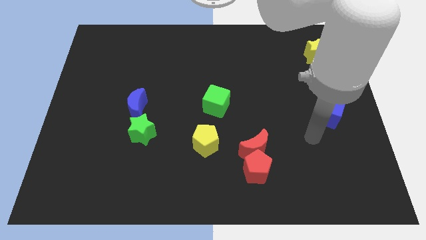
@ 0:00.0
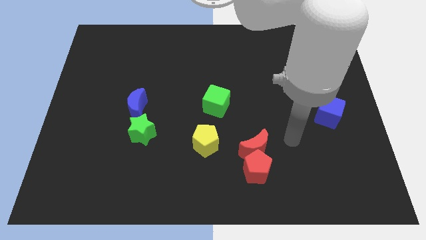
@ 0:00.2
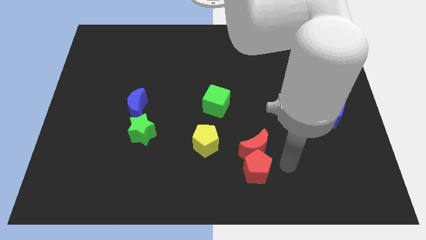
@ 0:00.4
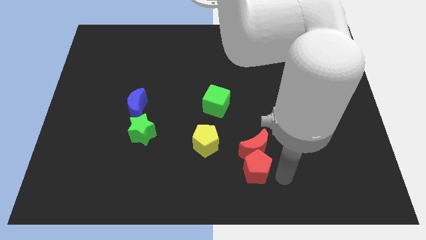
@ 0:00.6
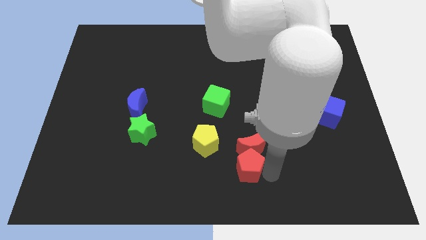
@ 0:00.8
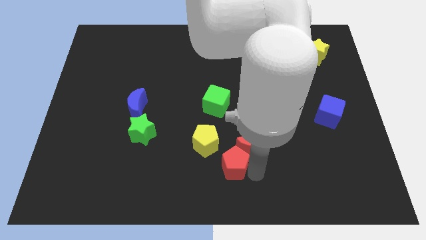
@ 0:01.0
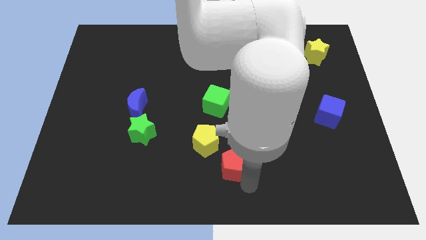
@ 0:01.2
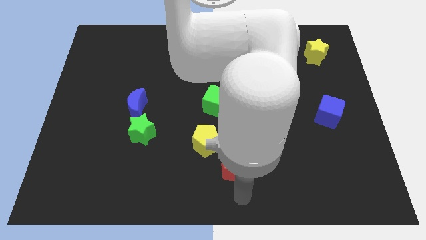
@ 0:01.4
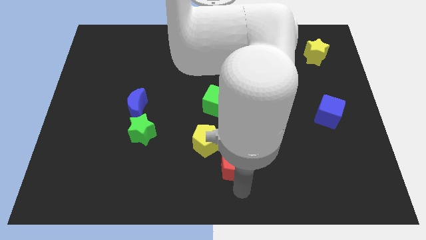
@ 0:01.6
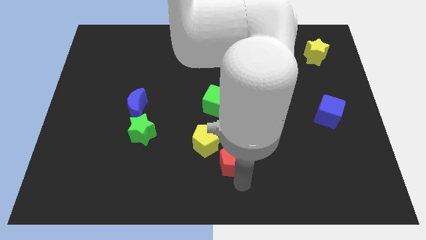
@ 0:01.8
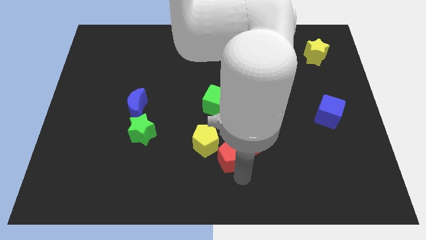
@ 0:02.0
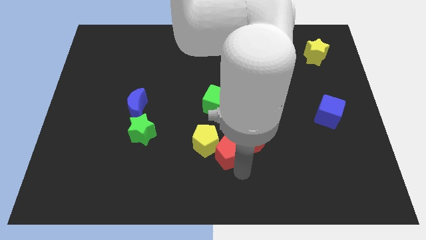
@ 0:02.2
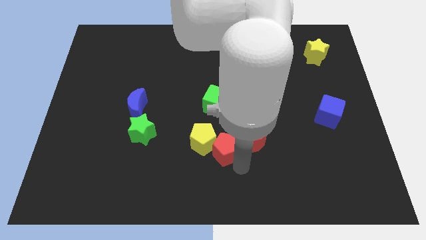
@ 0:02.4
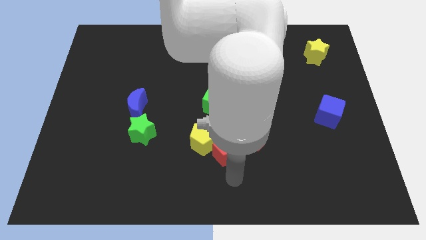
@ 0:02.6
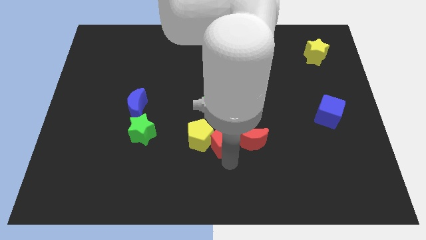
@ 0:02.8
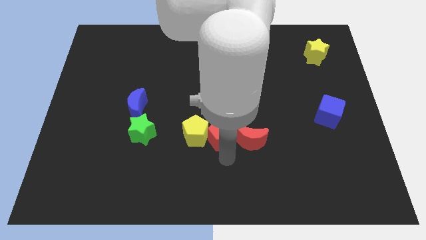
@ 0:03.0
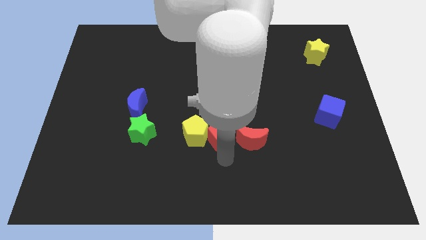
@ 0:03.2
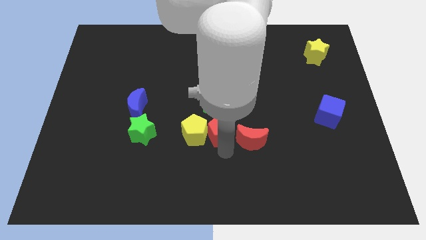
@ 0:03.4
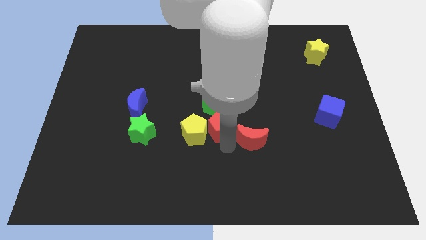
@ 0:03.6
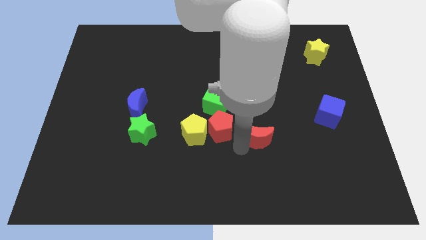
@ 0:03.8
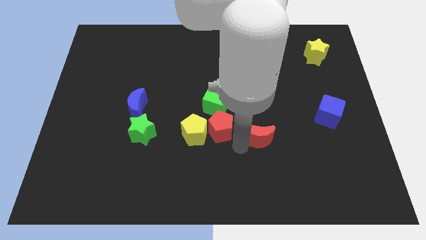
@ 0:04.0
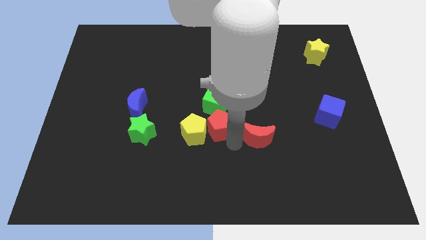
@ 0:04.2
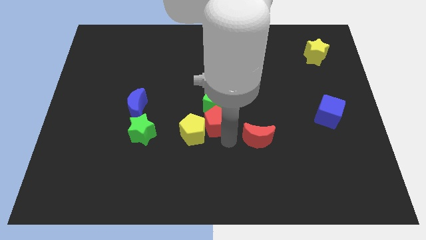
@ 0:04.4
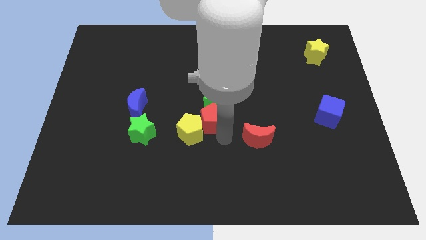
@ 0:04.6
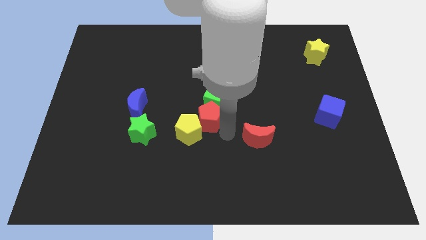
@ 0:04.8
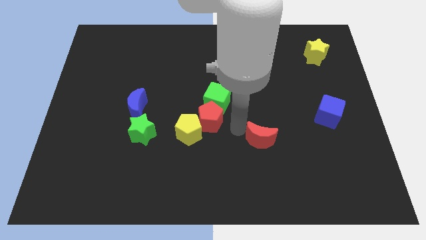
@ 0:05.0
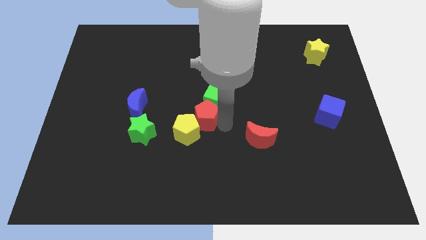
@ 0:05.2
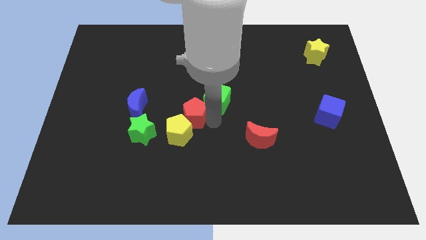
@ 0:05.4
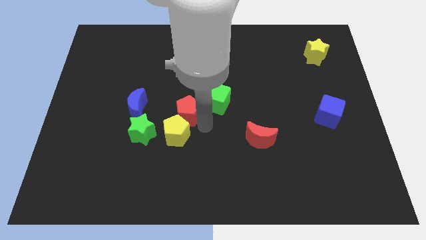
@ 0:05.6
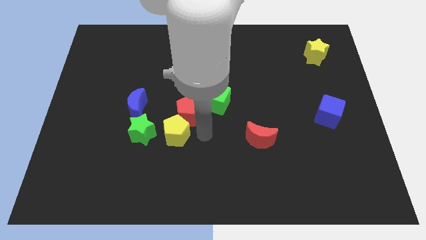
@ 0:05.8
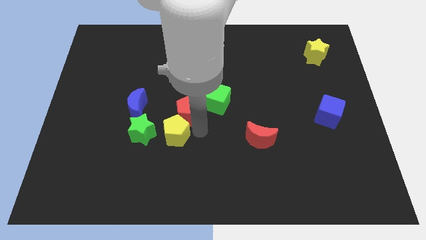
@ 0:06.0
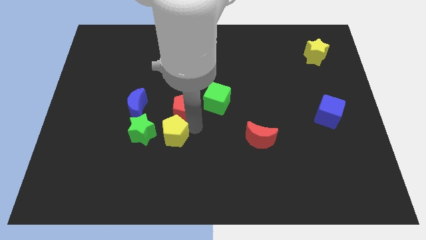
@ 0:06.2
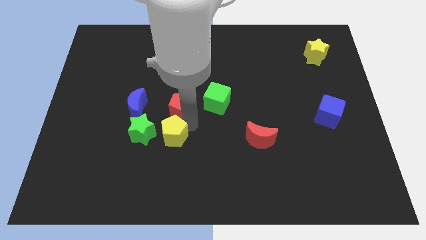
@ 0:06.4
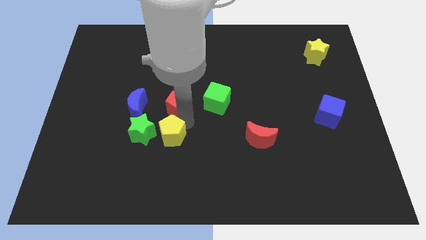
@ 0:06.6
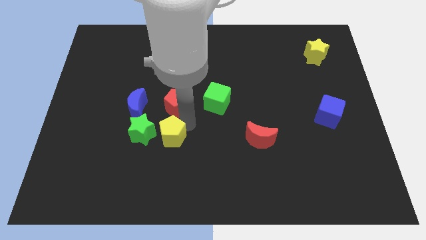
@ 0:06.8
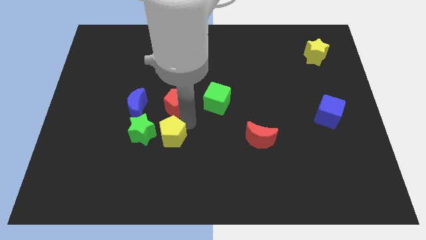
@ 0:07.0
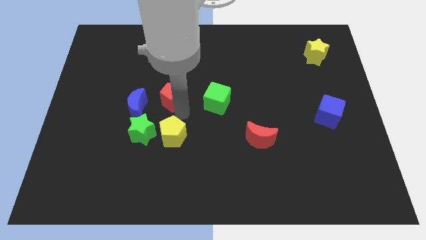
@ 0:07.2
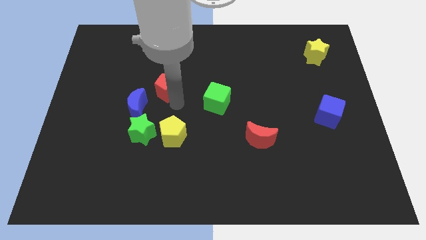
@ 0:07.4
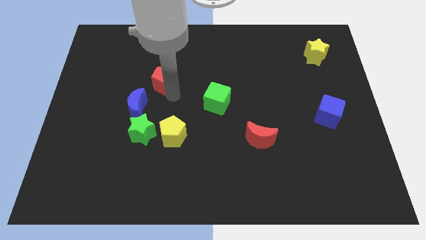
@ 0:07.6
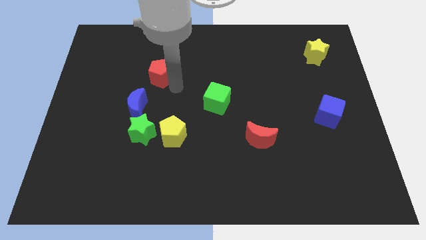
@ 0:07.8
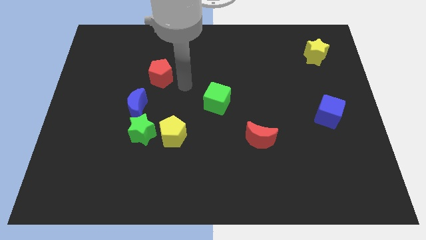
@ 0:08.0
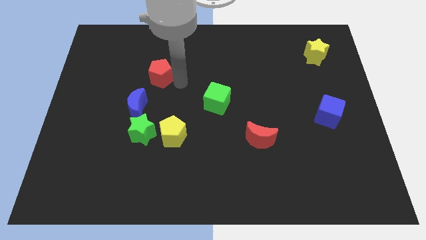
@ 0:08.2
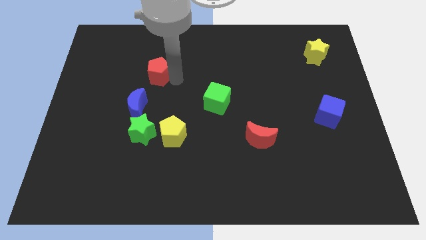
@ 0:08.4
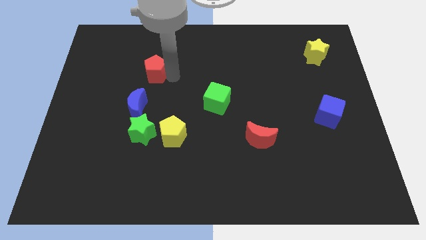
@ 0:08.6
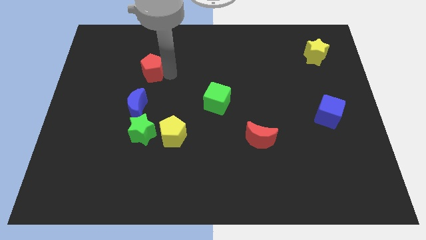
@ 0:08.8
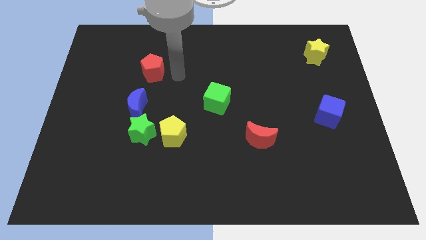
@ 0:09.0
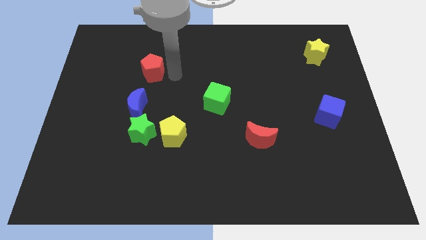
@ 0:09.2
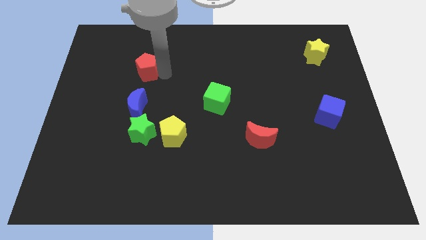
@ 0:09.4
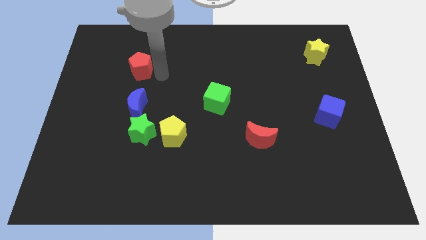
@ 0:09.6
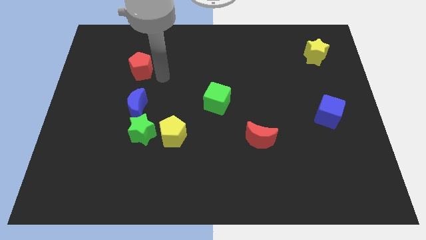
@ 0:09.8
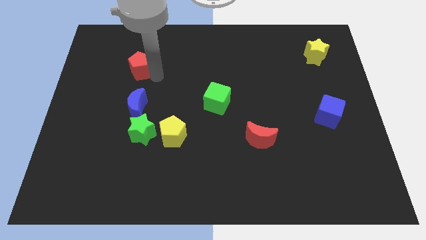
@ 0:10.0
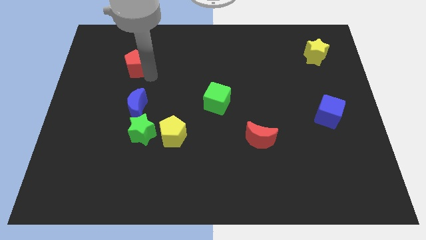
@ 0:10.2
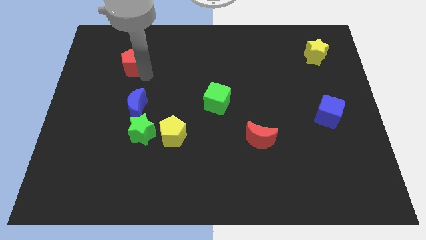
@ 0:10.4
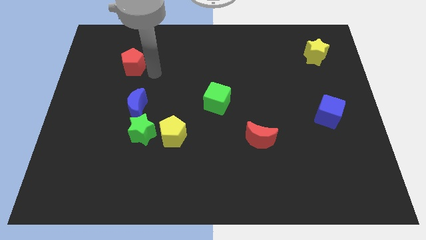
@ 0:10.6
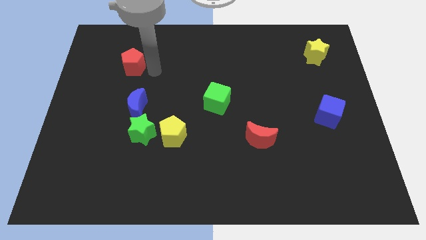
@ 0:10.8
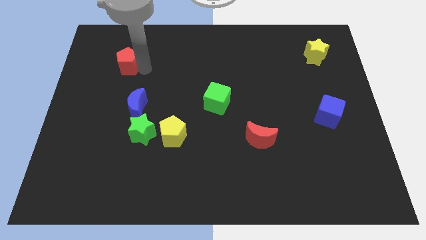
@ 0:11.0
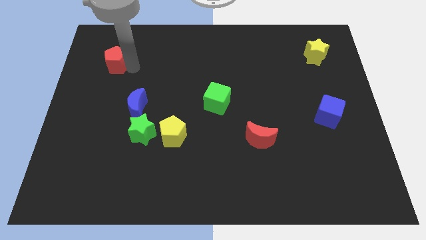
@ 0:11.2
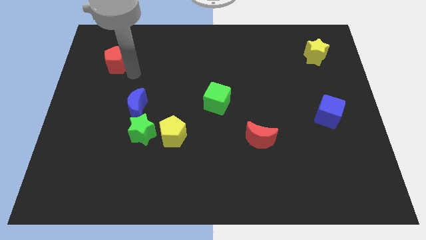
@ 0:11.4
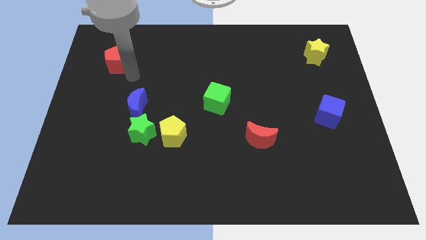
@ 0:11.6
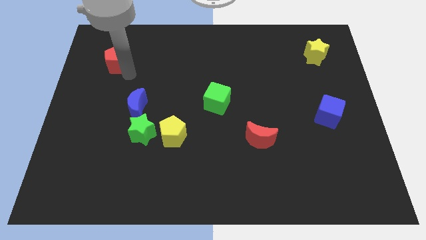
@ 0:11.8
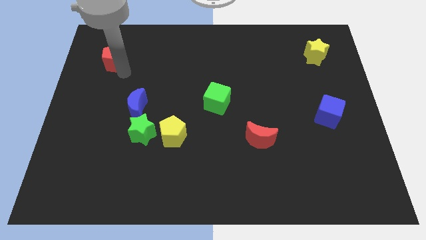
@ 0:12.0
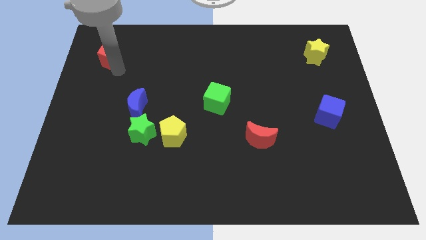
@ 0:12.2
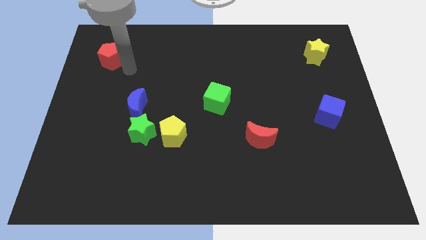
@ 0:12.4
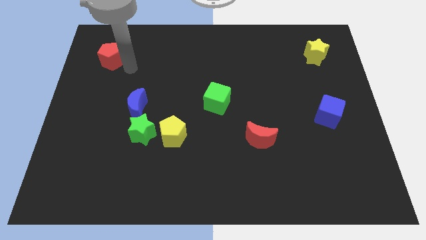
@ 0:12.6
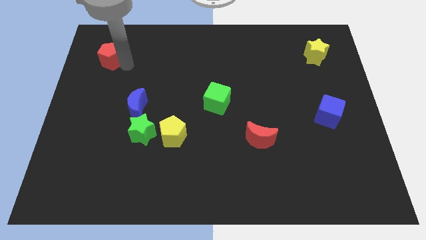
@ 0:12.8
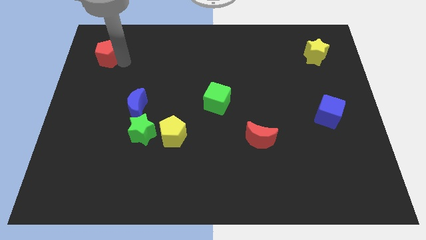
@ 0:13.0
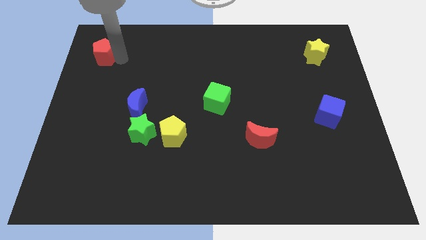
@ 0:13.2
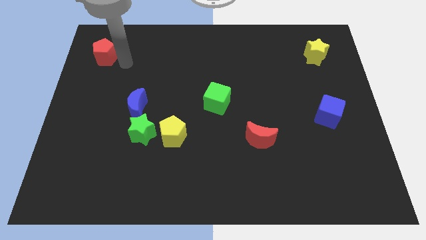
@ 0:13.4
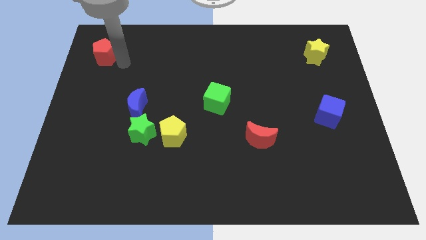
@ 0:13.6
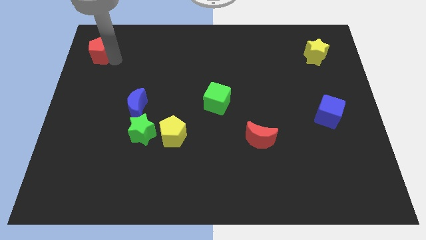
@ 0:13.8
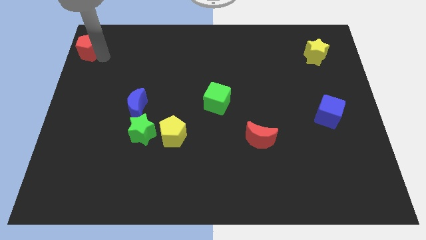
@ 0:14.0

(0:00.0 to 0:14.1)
move the red pentagon to the top left of the board
